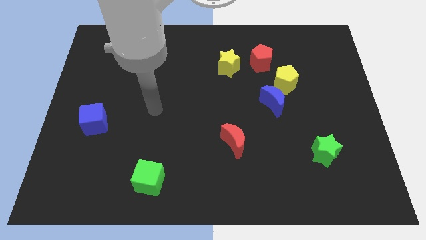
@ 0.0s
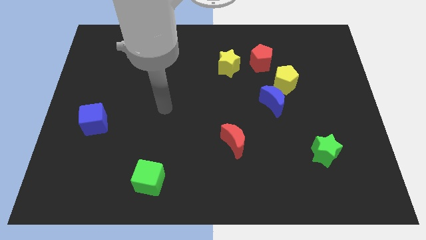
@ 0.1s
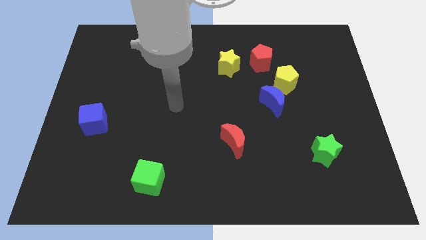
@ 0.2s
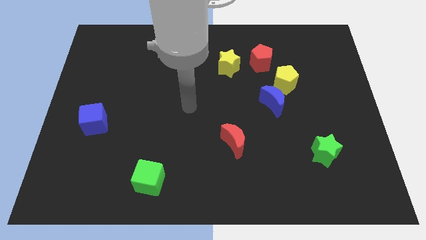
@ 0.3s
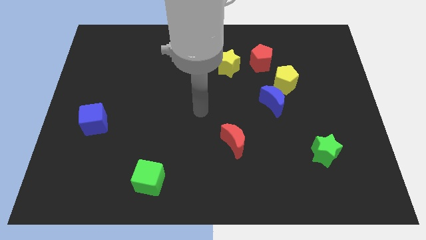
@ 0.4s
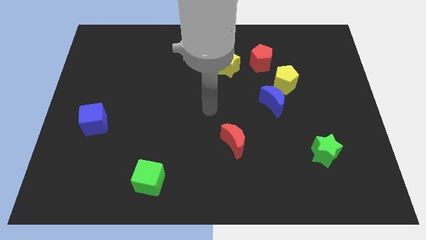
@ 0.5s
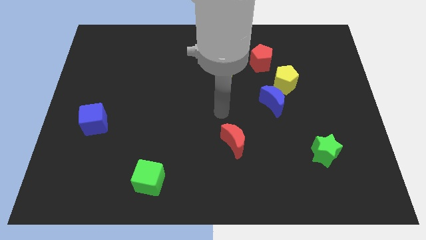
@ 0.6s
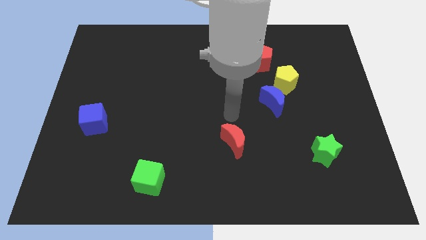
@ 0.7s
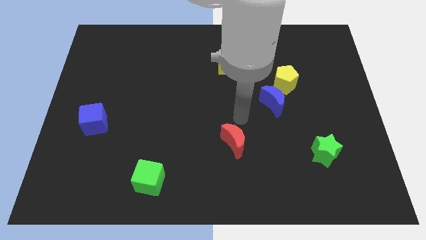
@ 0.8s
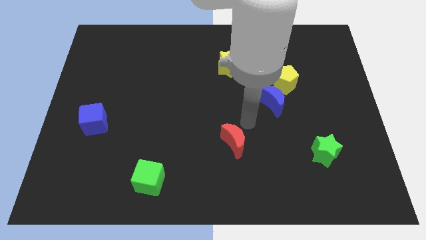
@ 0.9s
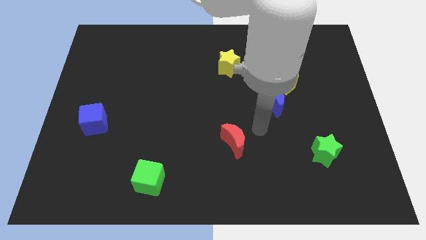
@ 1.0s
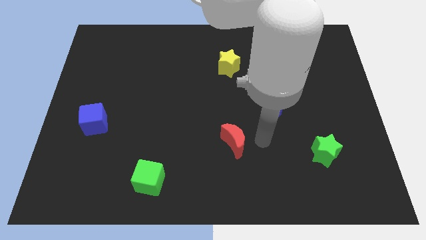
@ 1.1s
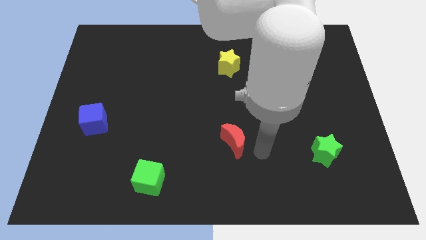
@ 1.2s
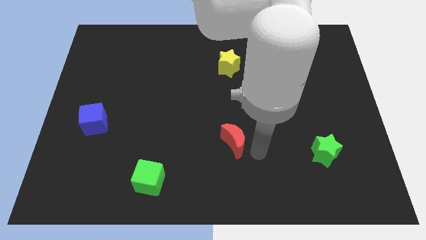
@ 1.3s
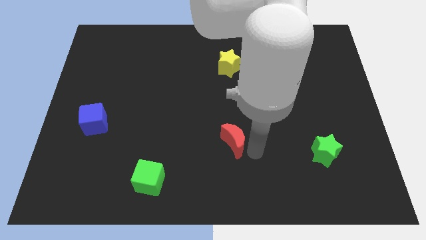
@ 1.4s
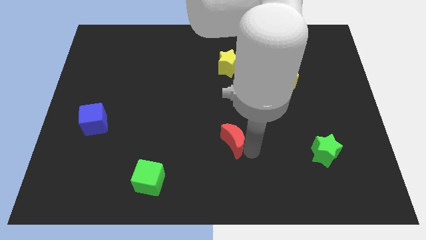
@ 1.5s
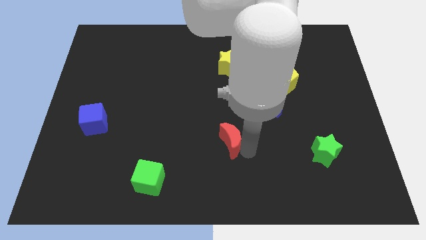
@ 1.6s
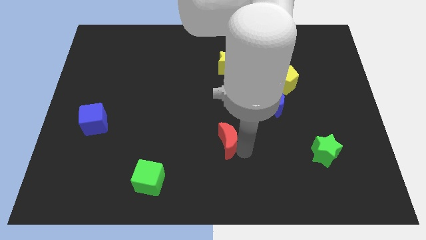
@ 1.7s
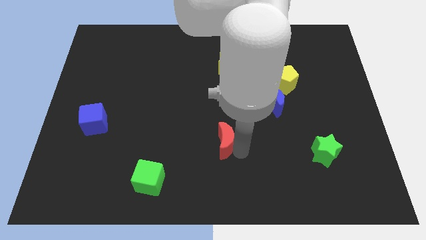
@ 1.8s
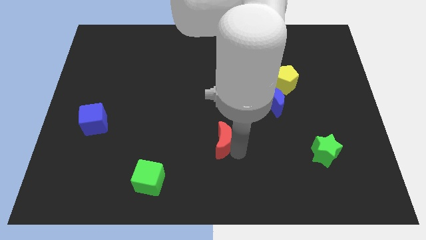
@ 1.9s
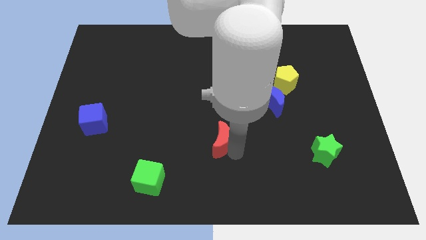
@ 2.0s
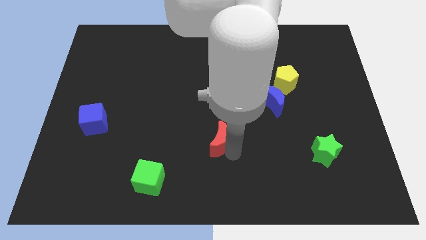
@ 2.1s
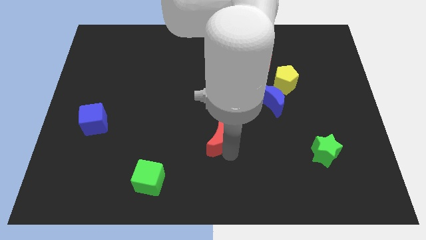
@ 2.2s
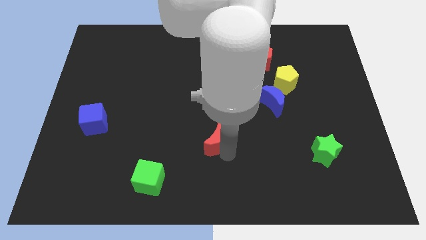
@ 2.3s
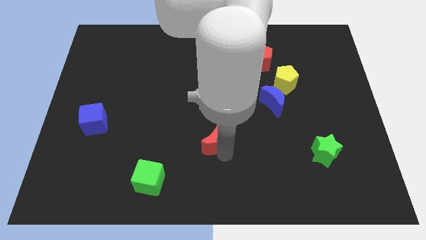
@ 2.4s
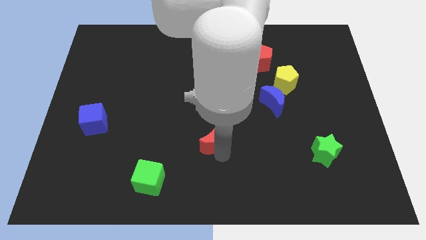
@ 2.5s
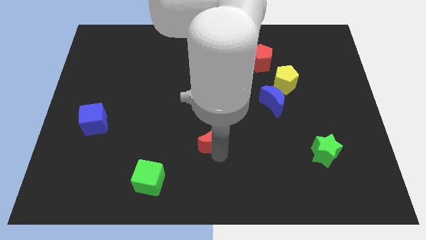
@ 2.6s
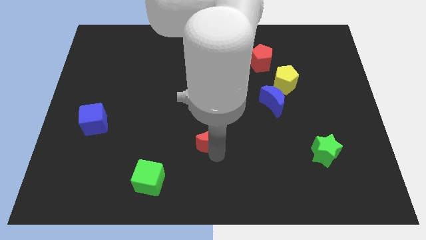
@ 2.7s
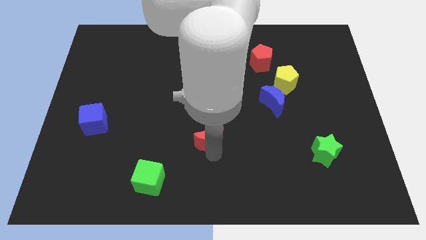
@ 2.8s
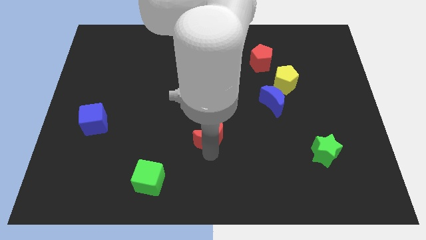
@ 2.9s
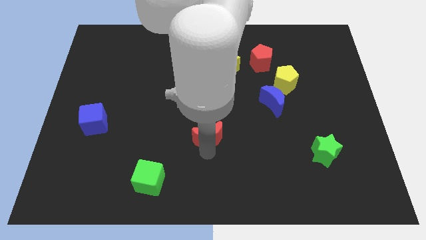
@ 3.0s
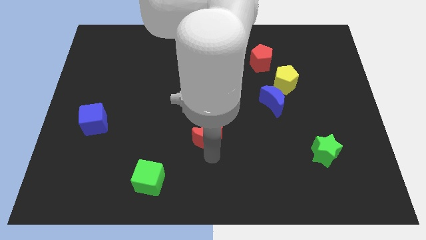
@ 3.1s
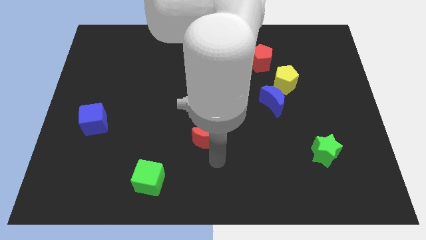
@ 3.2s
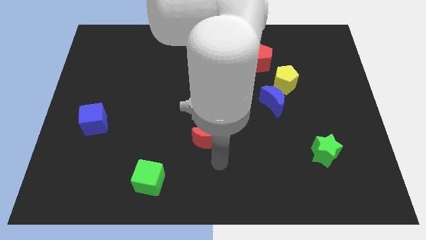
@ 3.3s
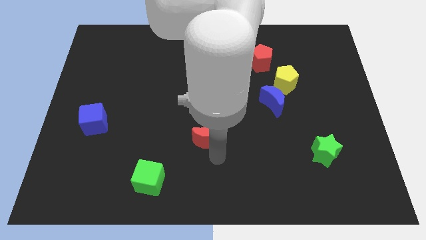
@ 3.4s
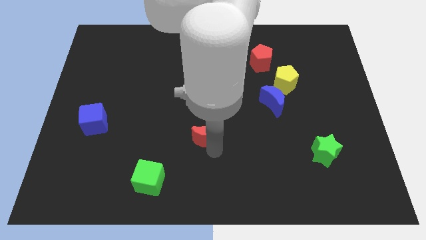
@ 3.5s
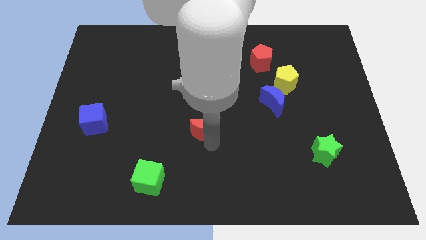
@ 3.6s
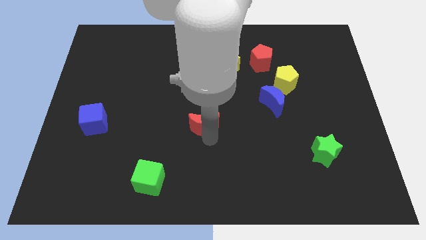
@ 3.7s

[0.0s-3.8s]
move the red moon a little bit up and left

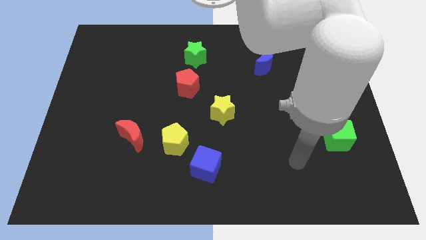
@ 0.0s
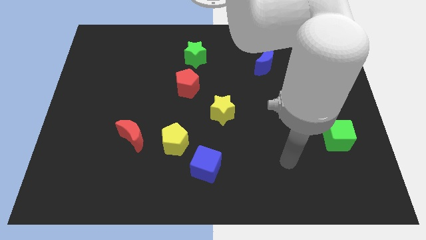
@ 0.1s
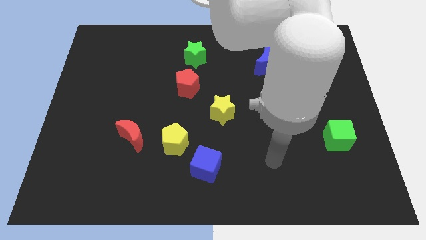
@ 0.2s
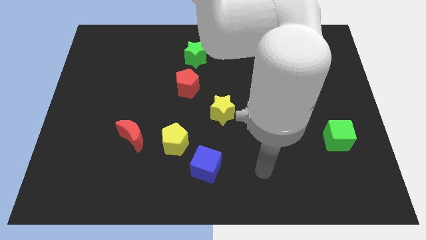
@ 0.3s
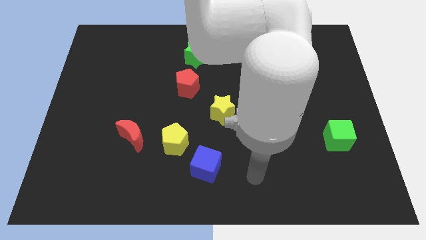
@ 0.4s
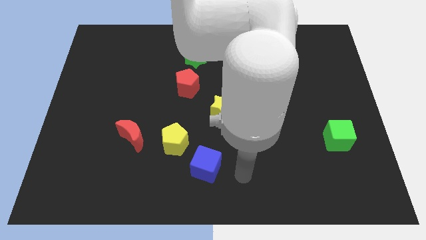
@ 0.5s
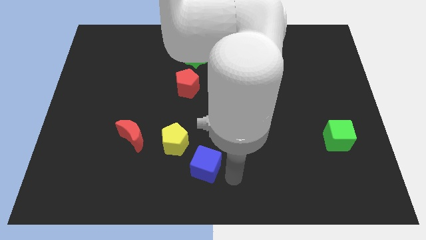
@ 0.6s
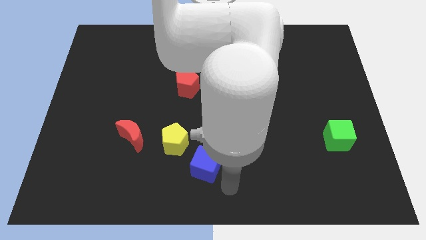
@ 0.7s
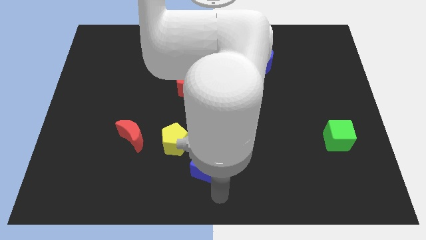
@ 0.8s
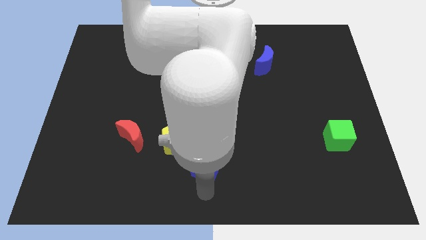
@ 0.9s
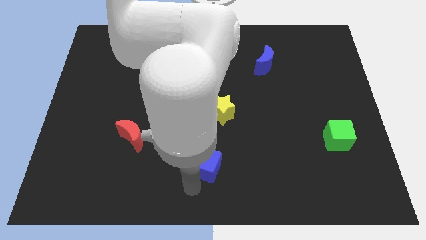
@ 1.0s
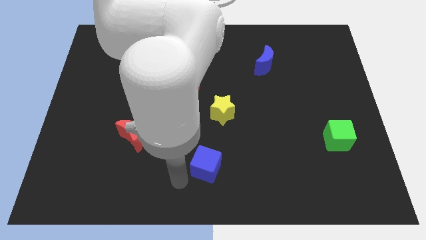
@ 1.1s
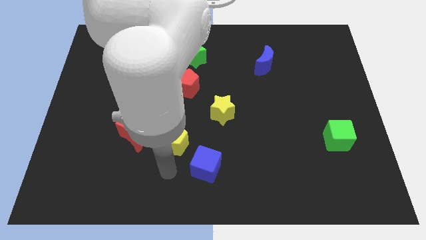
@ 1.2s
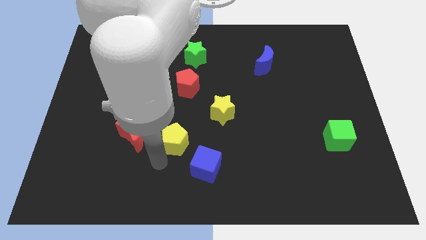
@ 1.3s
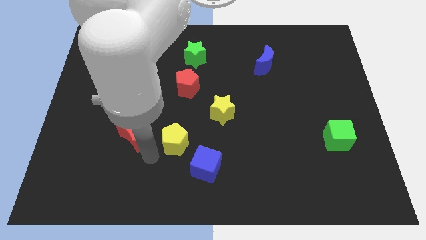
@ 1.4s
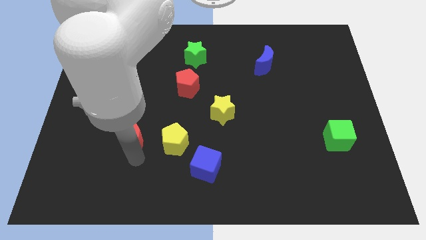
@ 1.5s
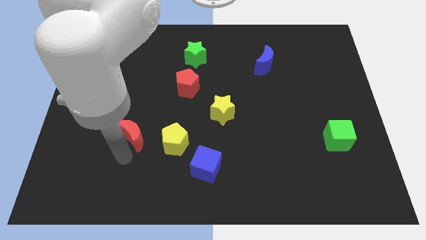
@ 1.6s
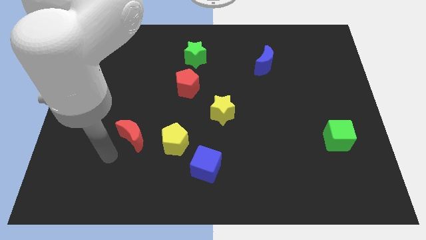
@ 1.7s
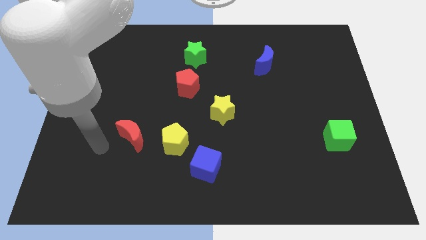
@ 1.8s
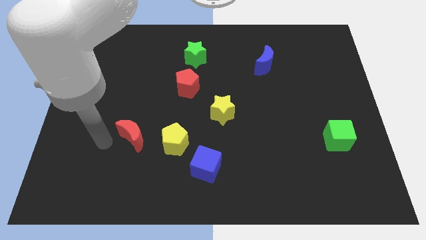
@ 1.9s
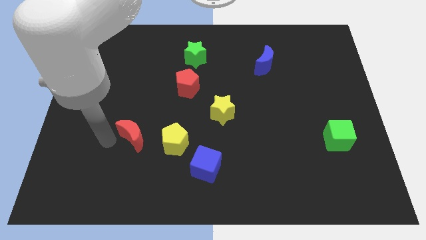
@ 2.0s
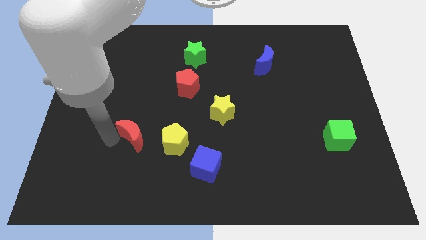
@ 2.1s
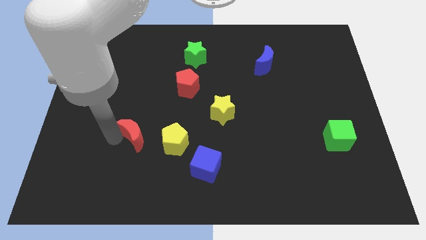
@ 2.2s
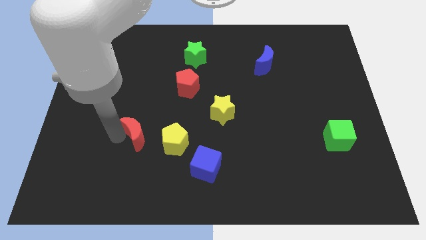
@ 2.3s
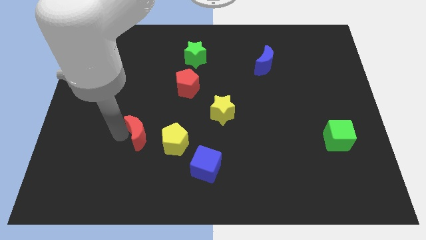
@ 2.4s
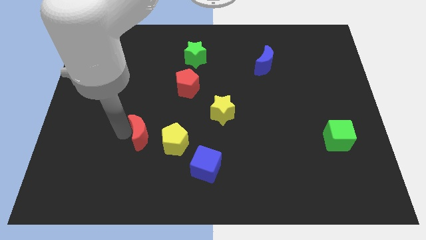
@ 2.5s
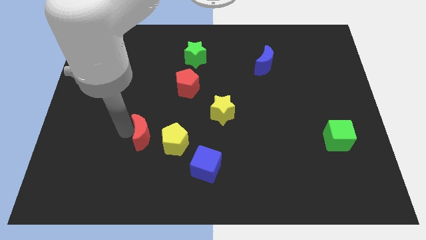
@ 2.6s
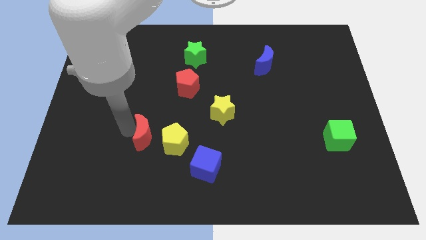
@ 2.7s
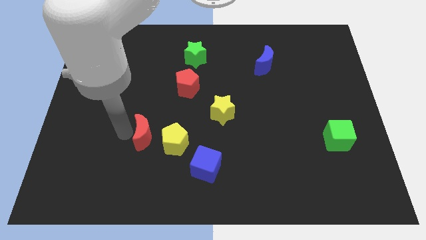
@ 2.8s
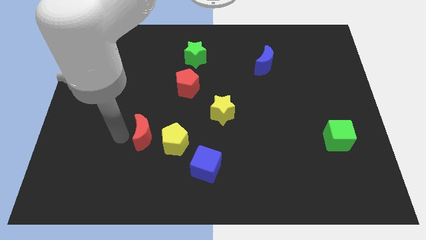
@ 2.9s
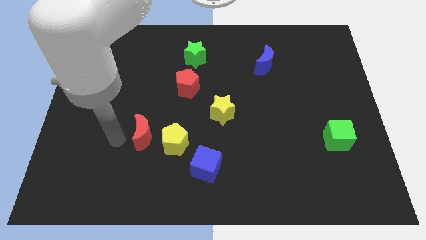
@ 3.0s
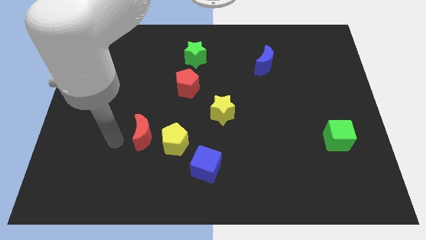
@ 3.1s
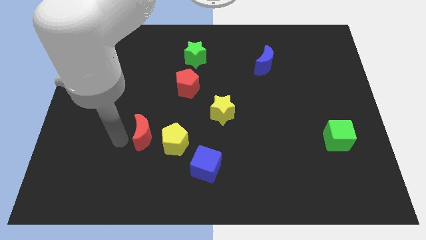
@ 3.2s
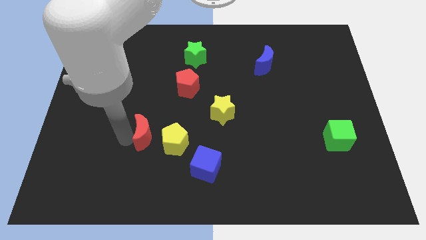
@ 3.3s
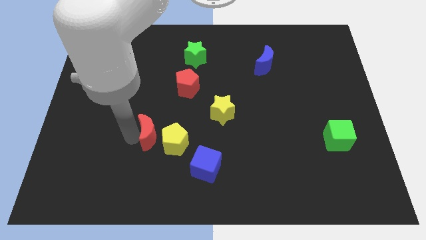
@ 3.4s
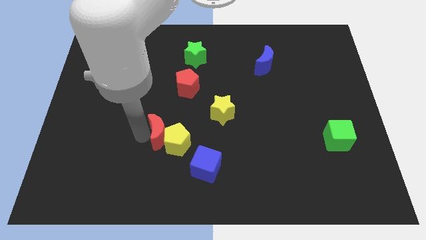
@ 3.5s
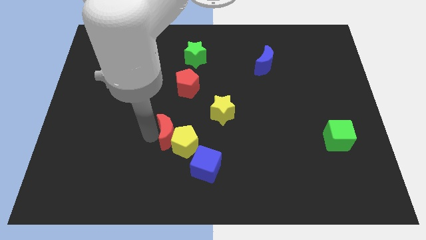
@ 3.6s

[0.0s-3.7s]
slide the red moon somewhat right

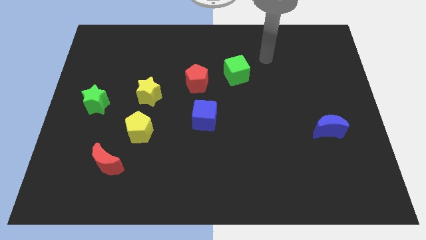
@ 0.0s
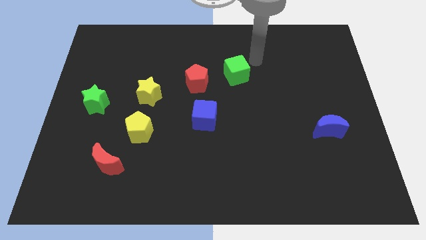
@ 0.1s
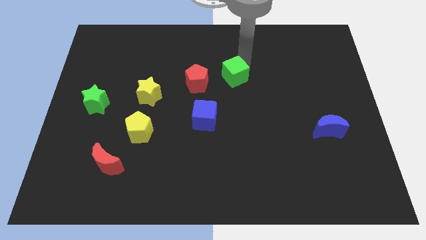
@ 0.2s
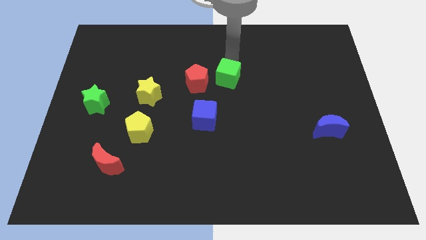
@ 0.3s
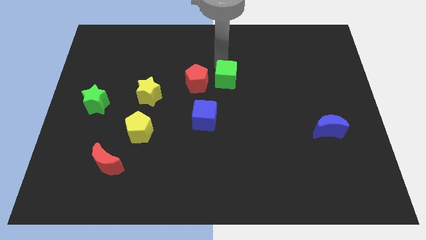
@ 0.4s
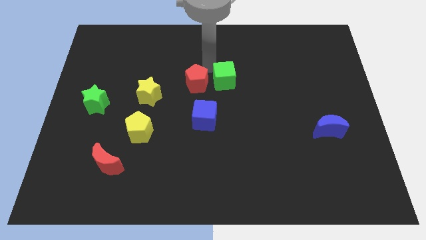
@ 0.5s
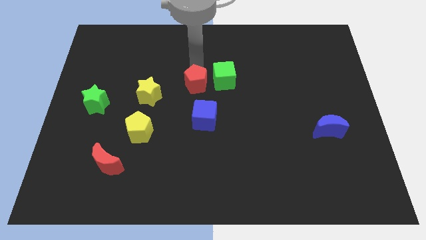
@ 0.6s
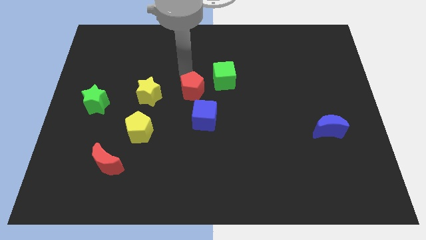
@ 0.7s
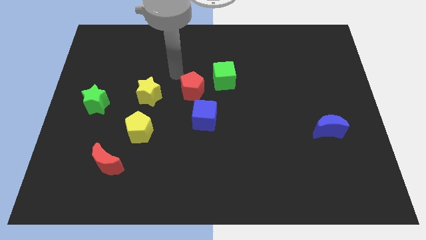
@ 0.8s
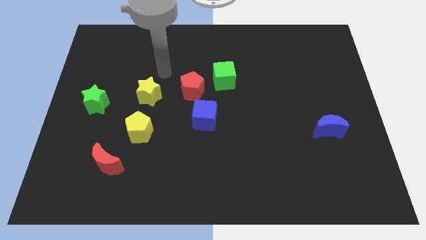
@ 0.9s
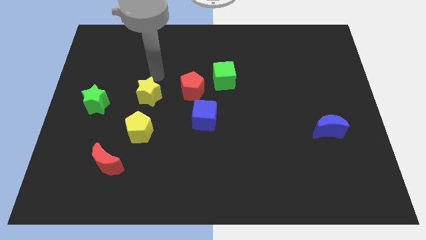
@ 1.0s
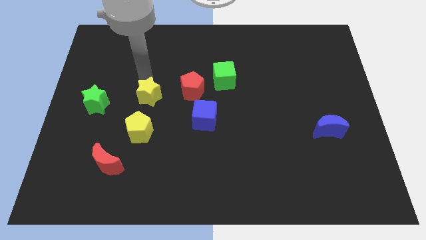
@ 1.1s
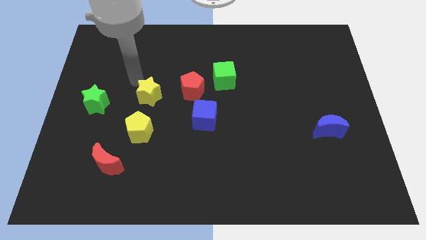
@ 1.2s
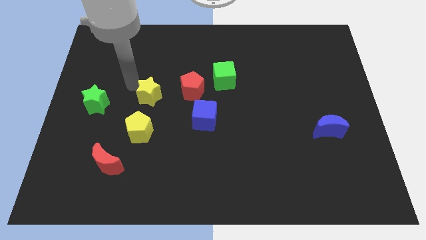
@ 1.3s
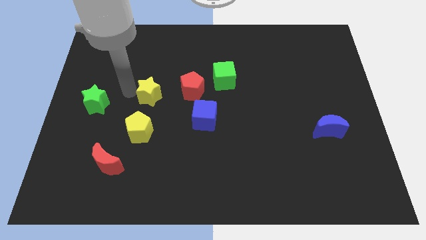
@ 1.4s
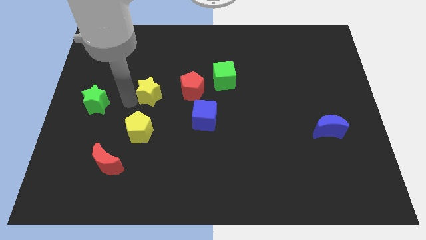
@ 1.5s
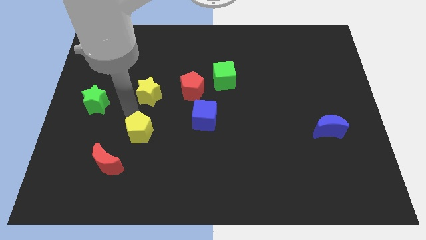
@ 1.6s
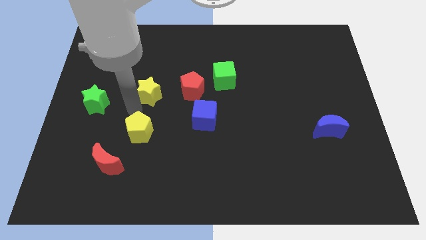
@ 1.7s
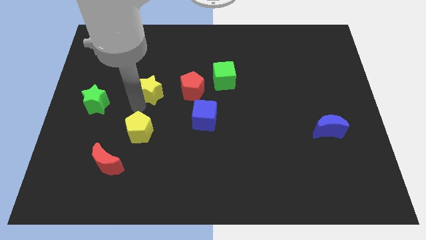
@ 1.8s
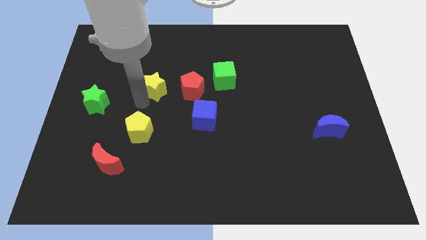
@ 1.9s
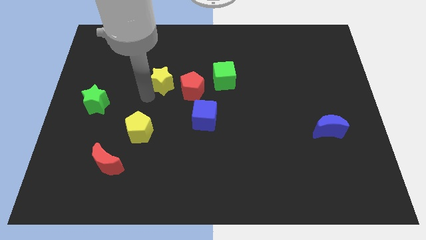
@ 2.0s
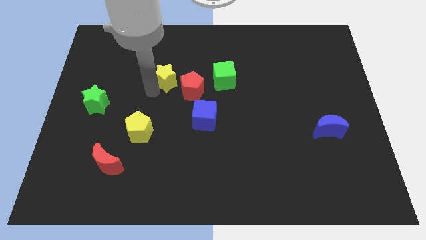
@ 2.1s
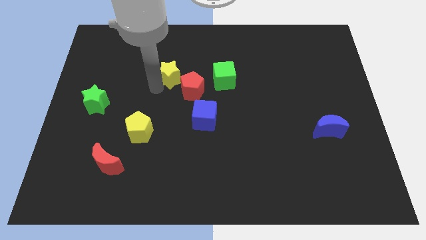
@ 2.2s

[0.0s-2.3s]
slightly move the yellow star up and right
